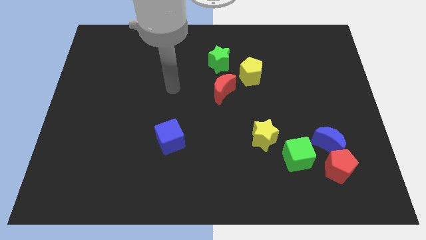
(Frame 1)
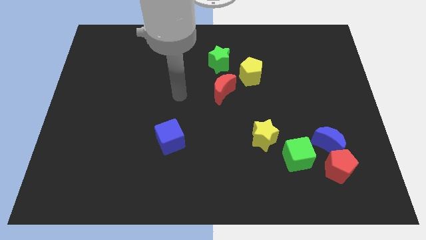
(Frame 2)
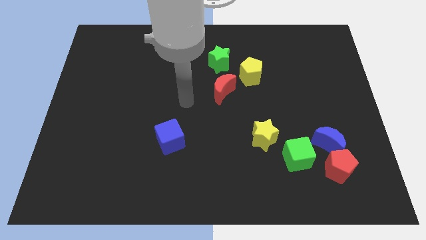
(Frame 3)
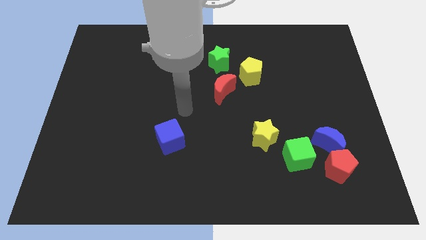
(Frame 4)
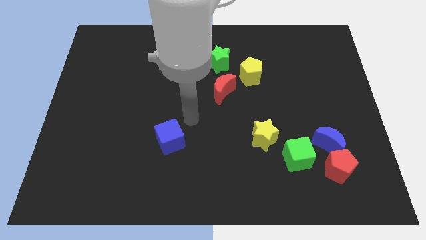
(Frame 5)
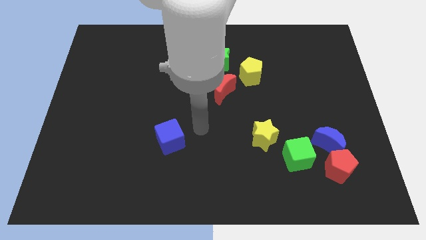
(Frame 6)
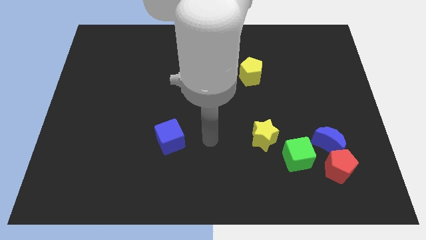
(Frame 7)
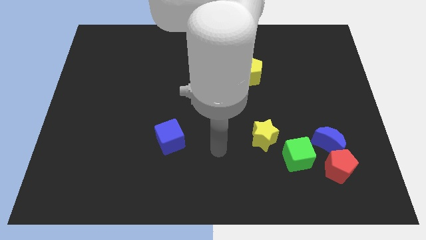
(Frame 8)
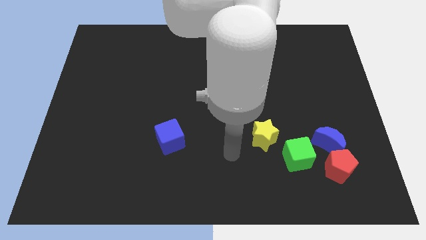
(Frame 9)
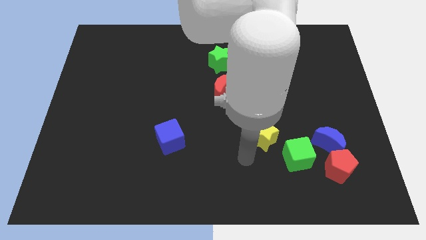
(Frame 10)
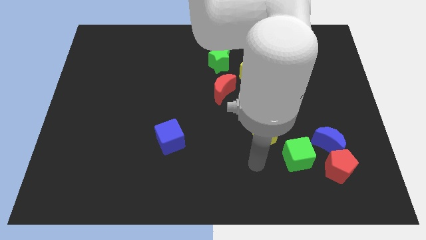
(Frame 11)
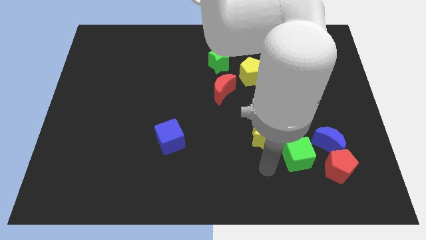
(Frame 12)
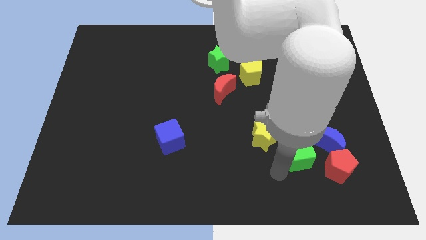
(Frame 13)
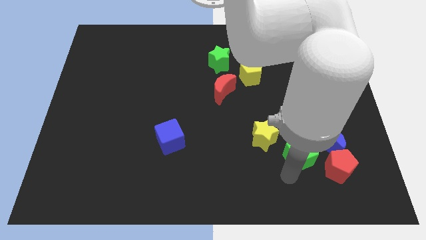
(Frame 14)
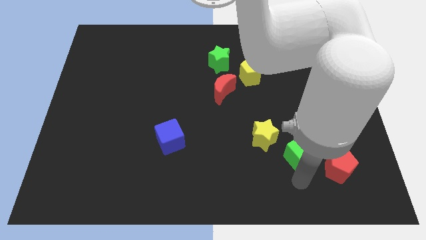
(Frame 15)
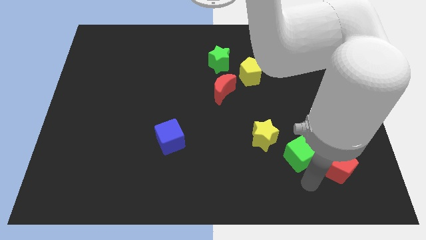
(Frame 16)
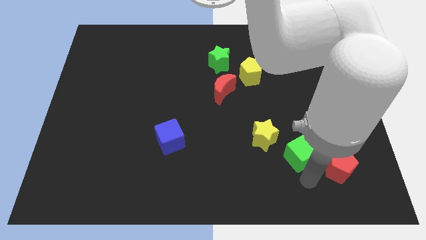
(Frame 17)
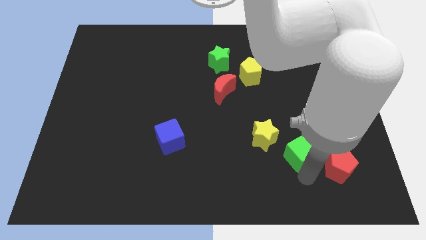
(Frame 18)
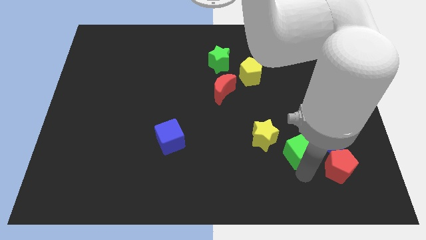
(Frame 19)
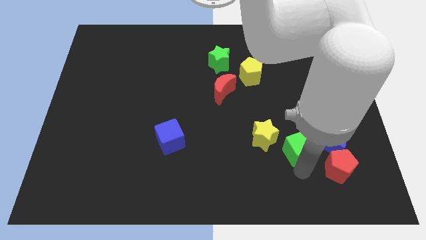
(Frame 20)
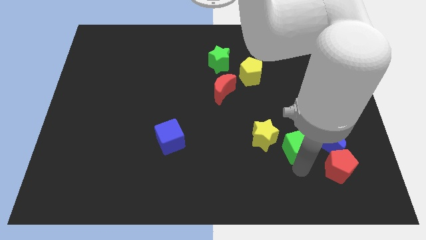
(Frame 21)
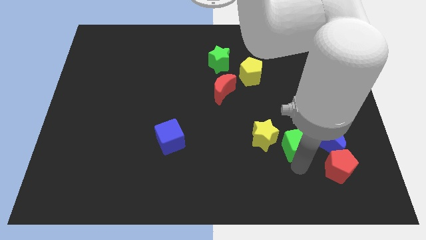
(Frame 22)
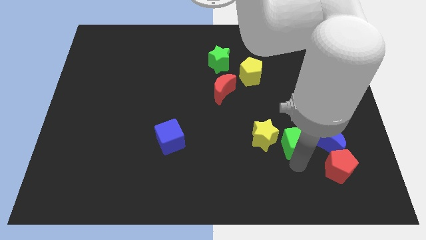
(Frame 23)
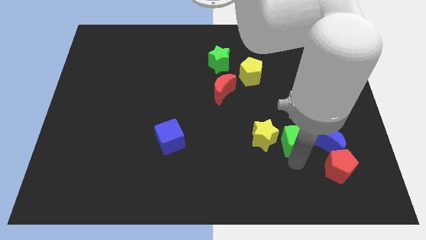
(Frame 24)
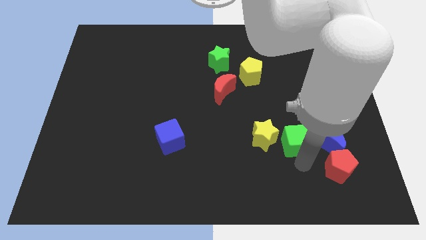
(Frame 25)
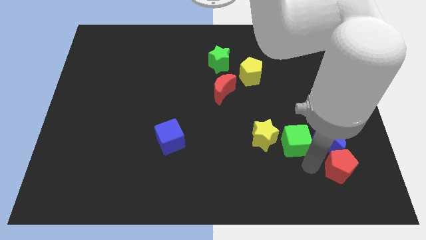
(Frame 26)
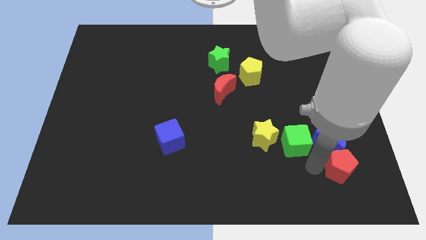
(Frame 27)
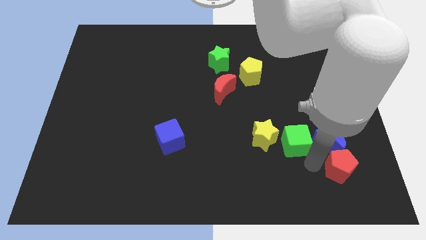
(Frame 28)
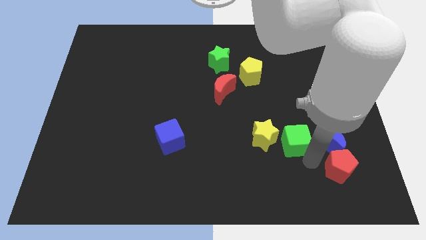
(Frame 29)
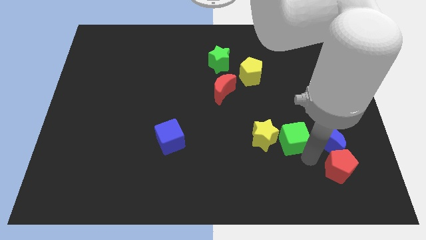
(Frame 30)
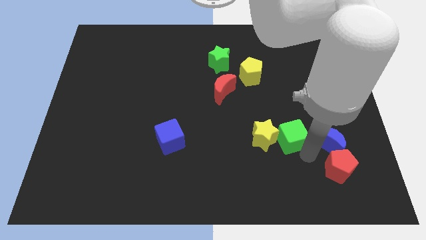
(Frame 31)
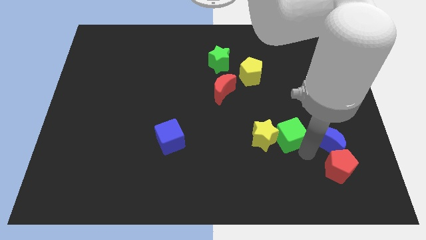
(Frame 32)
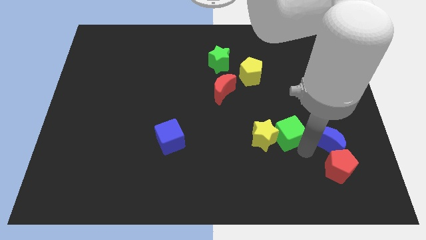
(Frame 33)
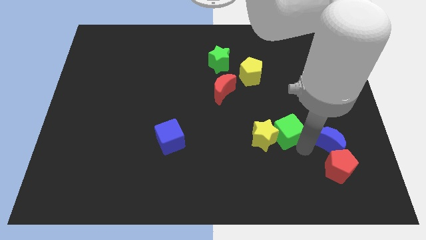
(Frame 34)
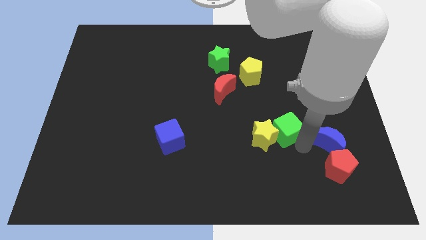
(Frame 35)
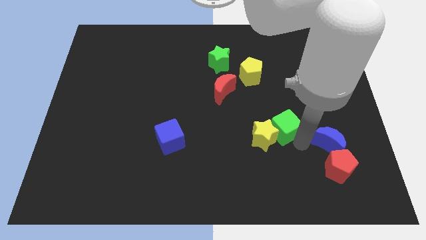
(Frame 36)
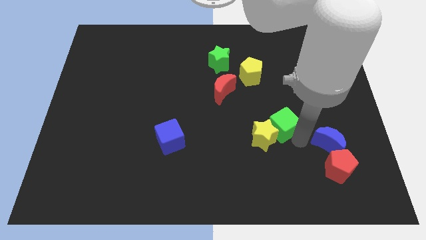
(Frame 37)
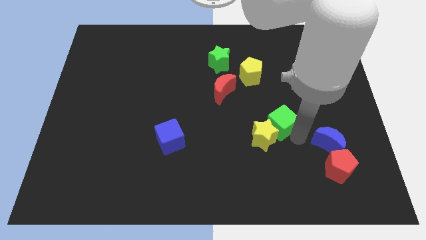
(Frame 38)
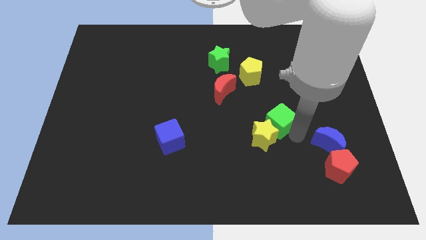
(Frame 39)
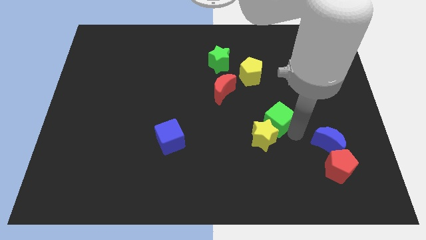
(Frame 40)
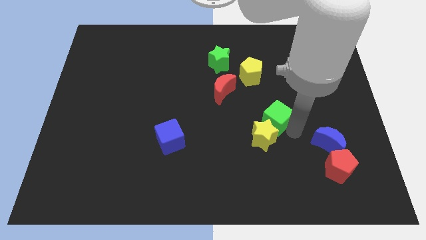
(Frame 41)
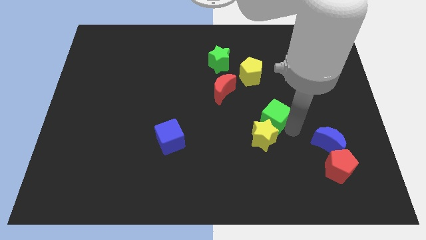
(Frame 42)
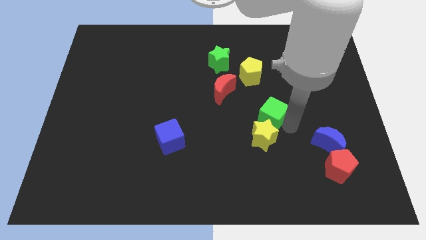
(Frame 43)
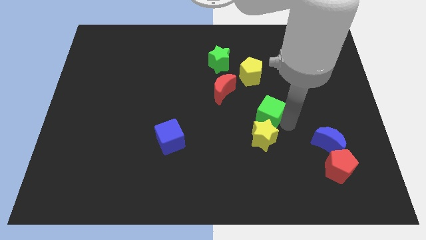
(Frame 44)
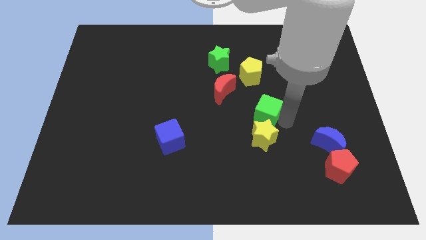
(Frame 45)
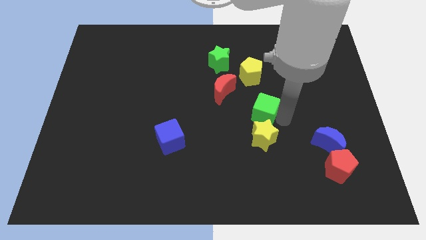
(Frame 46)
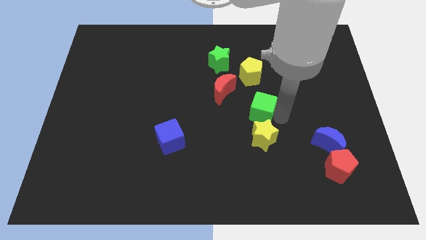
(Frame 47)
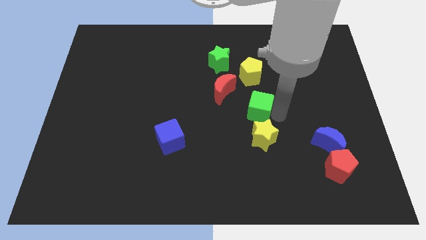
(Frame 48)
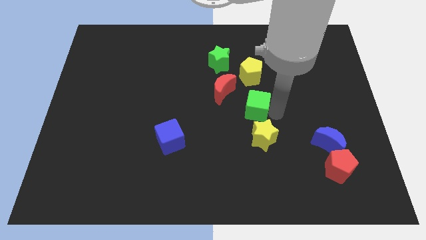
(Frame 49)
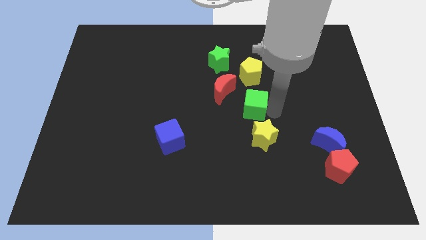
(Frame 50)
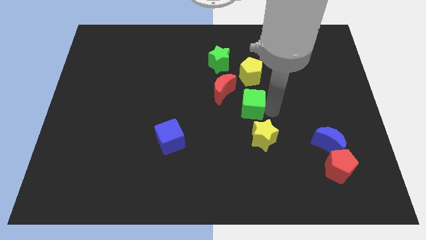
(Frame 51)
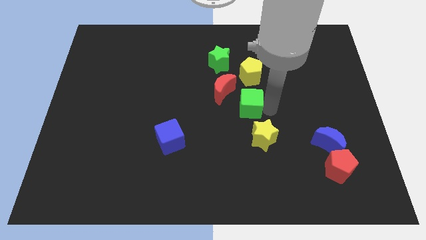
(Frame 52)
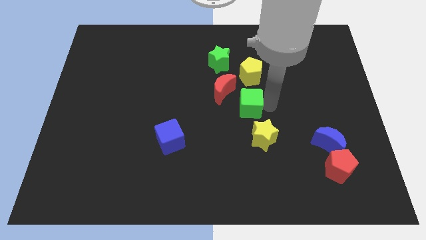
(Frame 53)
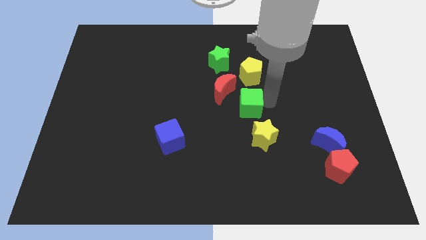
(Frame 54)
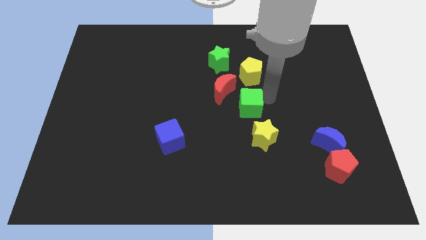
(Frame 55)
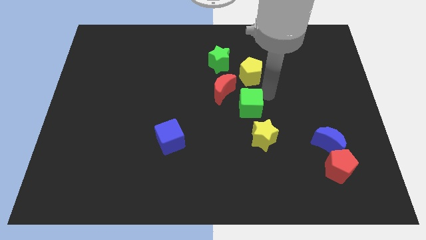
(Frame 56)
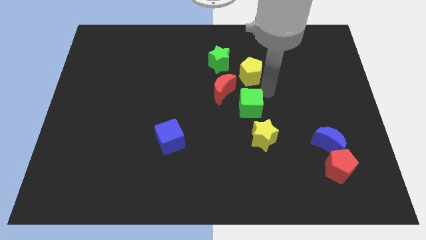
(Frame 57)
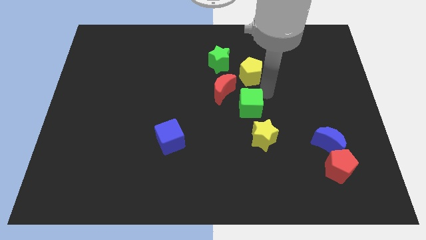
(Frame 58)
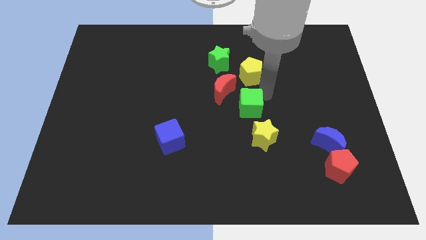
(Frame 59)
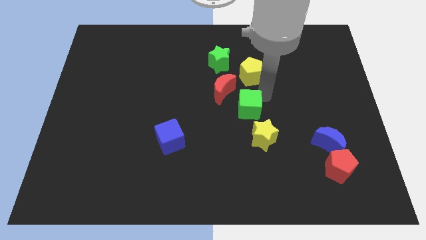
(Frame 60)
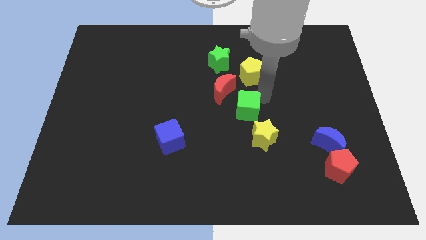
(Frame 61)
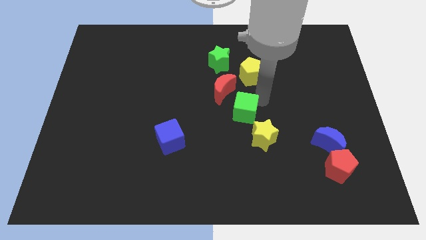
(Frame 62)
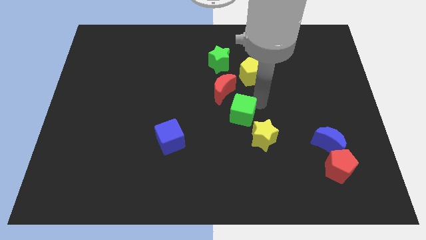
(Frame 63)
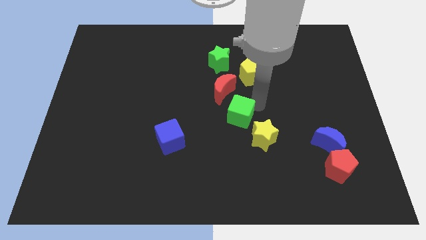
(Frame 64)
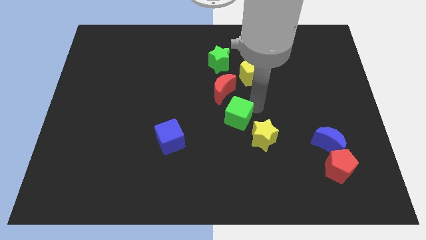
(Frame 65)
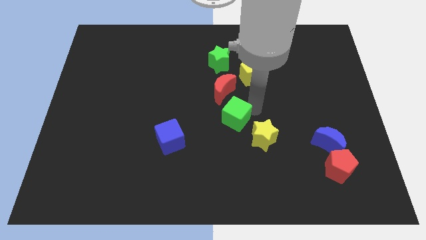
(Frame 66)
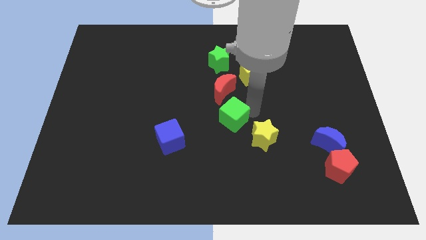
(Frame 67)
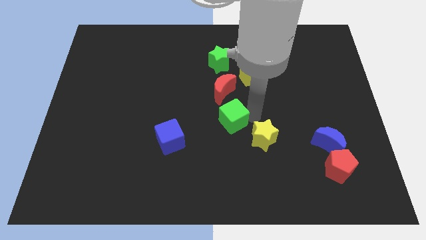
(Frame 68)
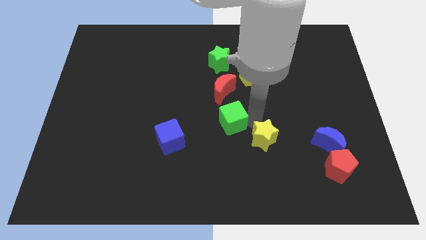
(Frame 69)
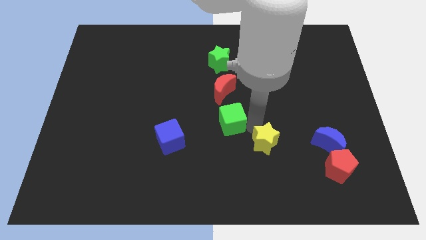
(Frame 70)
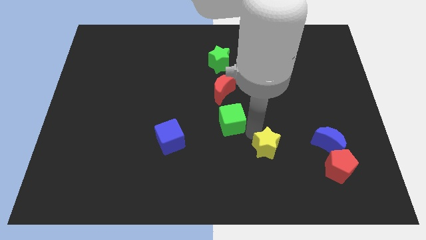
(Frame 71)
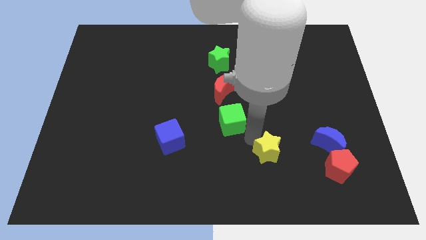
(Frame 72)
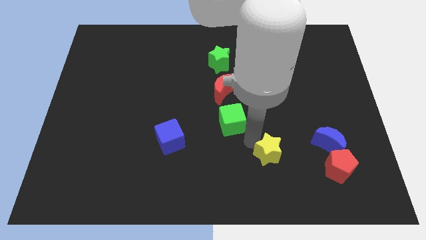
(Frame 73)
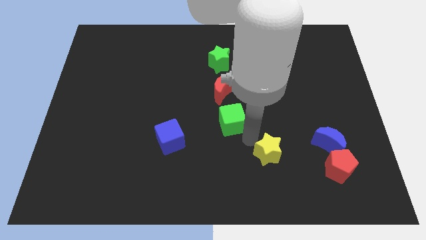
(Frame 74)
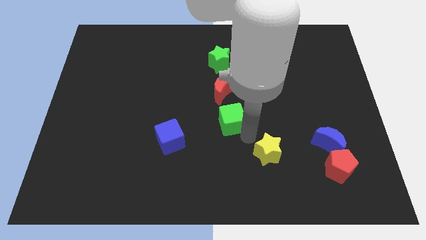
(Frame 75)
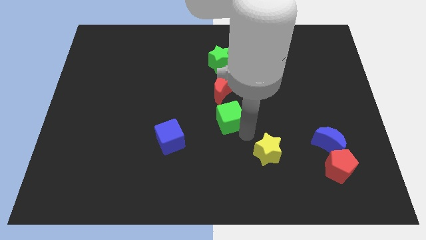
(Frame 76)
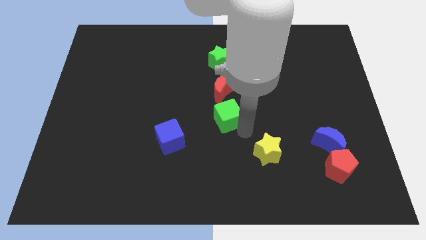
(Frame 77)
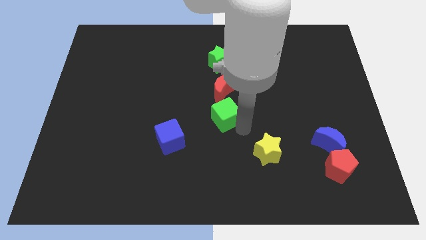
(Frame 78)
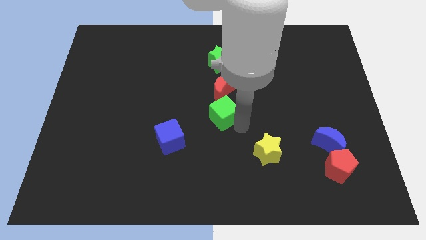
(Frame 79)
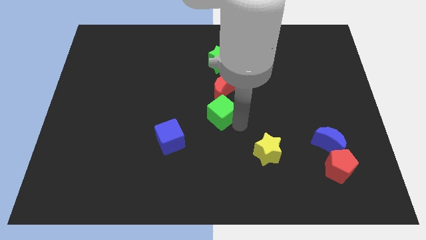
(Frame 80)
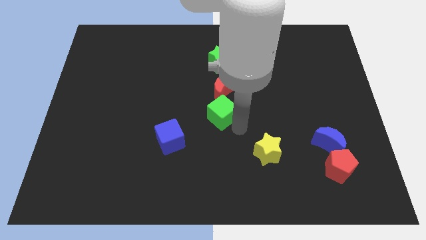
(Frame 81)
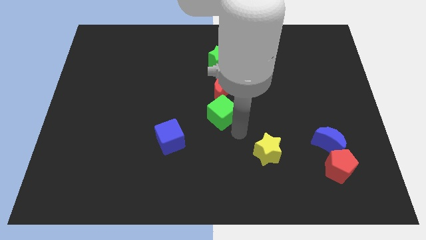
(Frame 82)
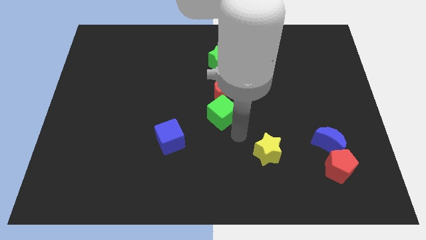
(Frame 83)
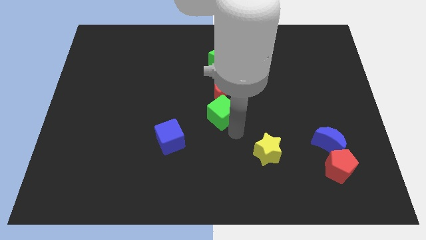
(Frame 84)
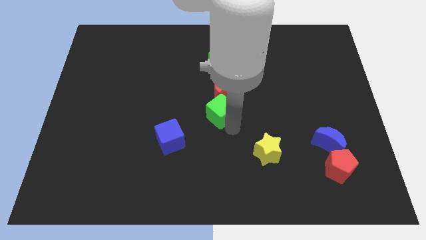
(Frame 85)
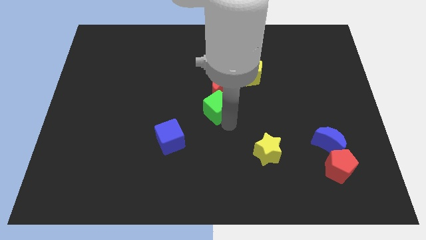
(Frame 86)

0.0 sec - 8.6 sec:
move the green cube upwards and left
